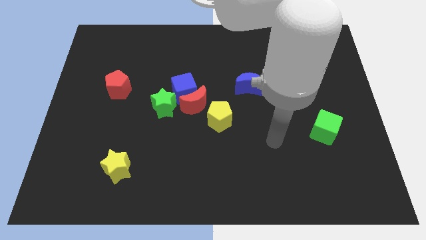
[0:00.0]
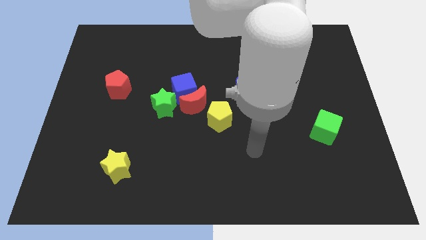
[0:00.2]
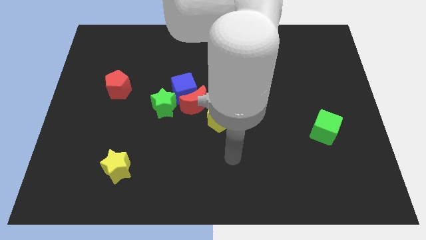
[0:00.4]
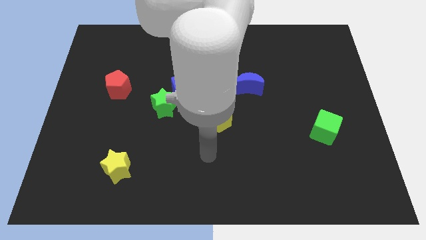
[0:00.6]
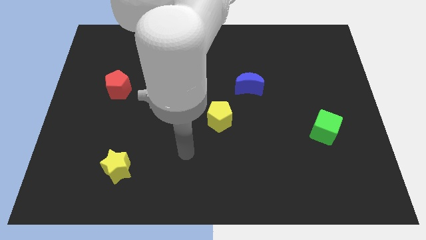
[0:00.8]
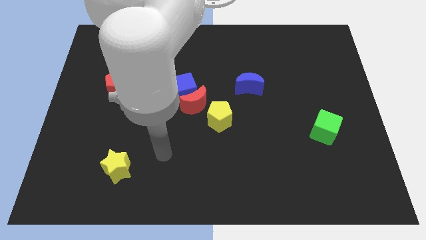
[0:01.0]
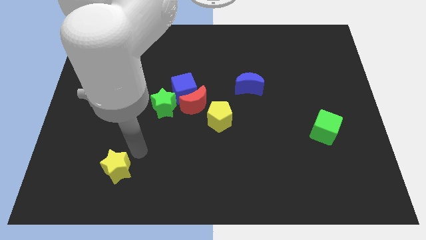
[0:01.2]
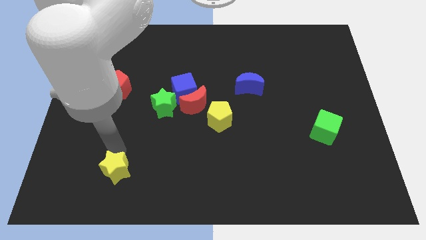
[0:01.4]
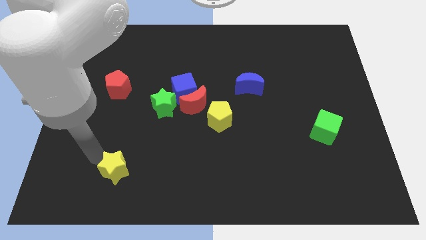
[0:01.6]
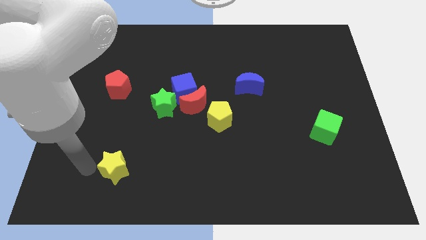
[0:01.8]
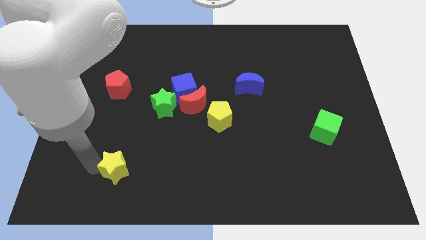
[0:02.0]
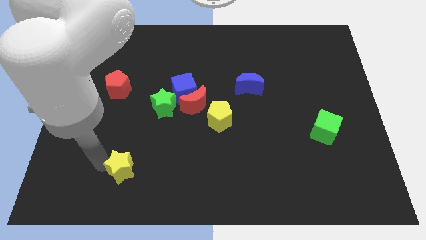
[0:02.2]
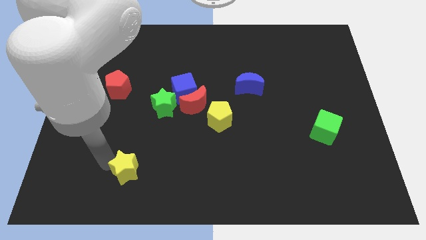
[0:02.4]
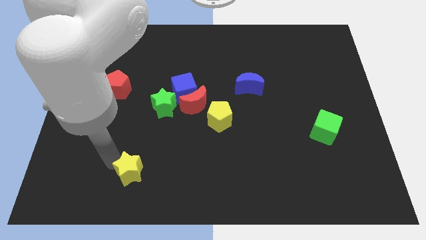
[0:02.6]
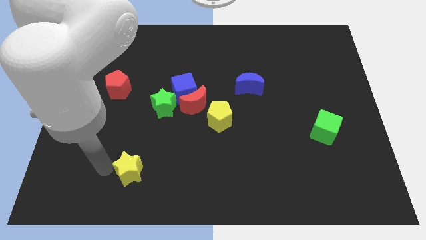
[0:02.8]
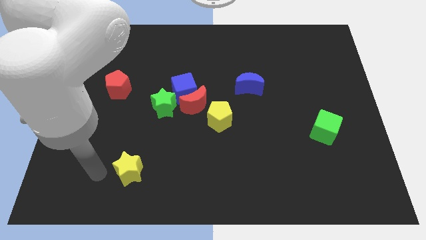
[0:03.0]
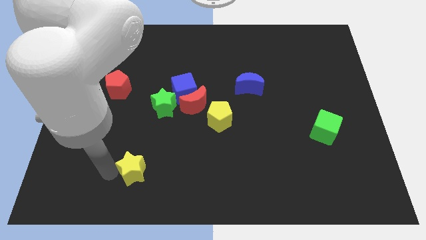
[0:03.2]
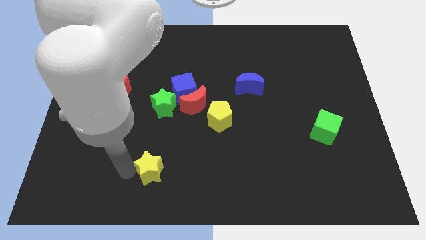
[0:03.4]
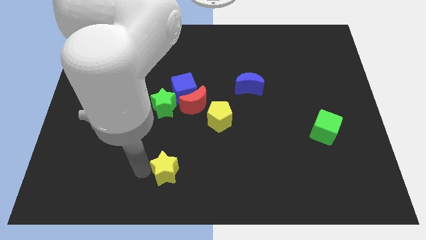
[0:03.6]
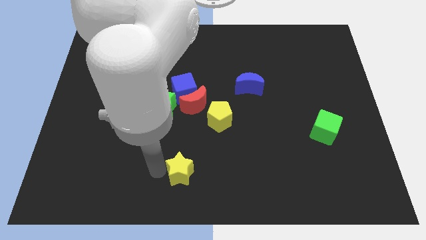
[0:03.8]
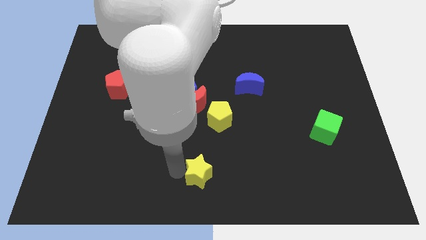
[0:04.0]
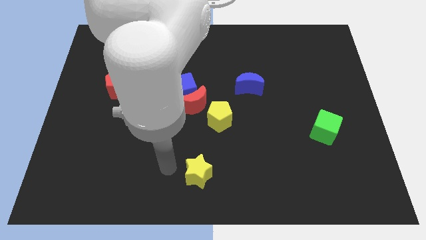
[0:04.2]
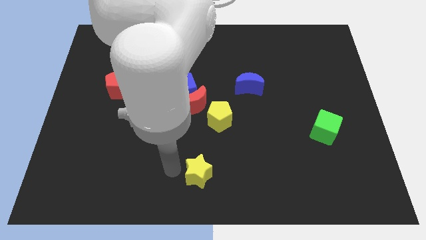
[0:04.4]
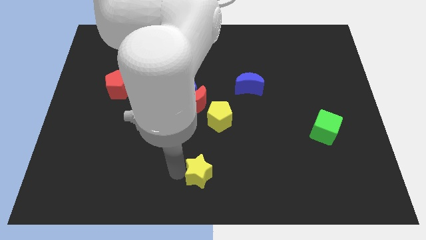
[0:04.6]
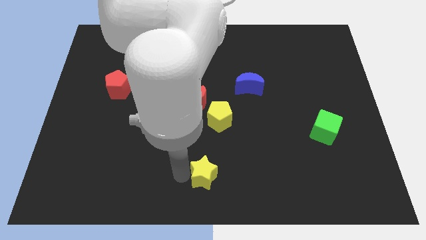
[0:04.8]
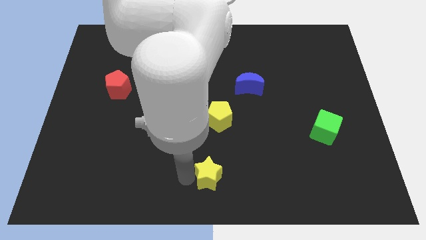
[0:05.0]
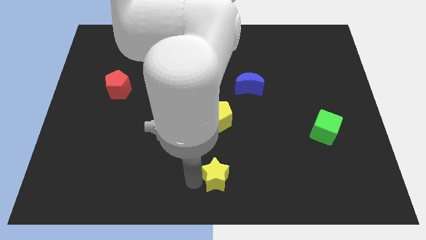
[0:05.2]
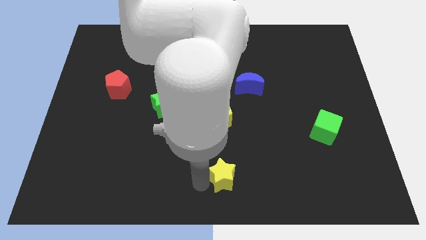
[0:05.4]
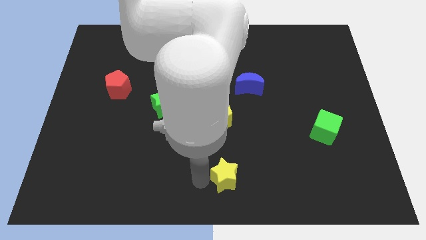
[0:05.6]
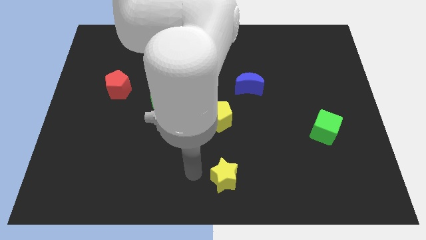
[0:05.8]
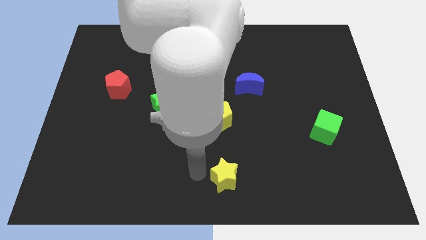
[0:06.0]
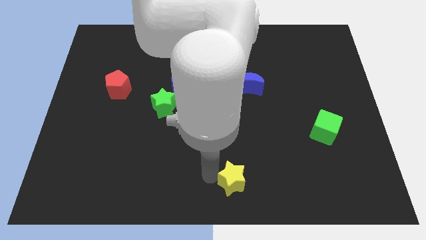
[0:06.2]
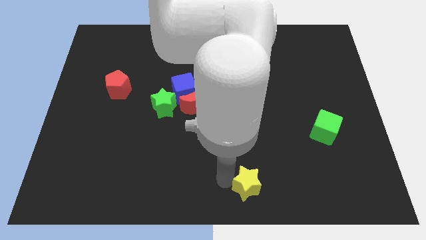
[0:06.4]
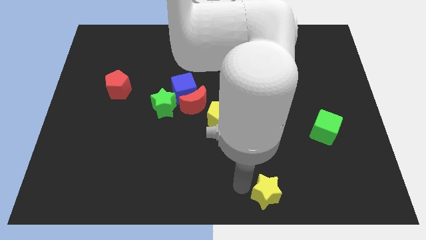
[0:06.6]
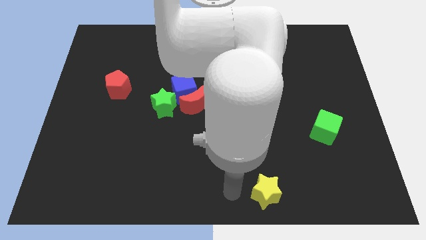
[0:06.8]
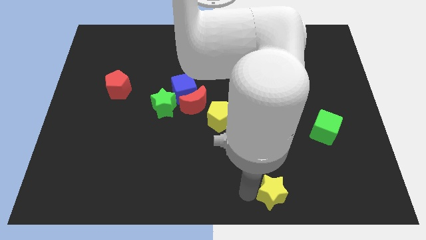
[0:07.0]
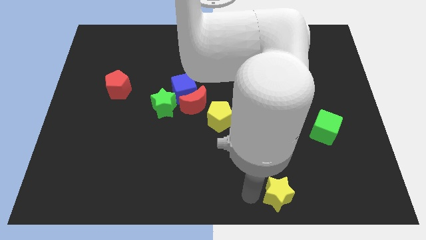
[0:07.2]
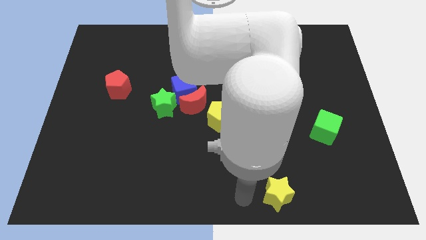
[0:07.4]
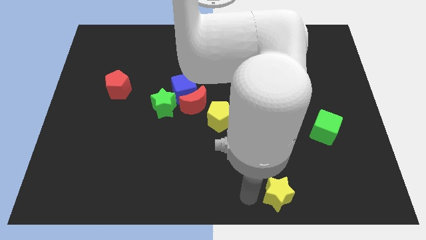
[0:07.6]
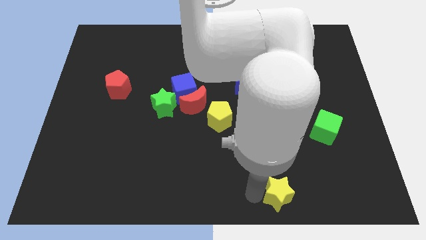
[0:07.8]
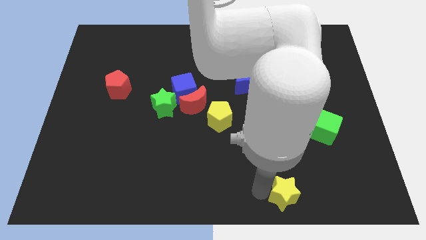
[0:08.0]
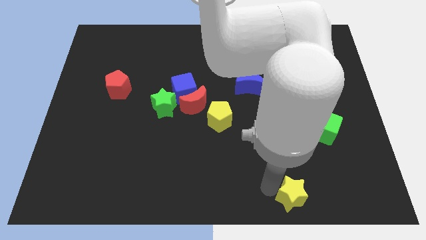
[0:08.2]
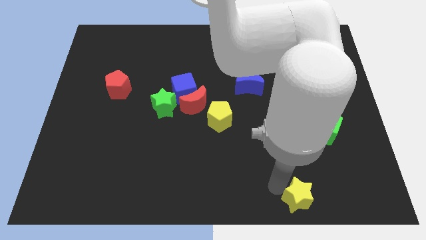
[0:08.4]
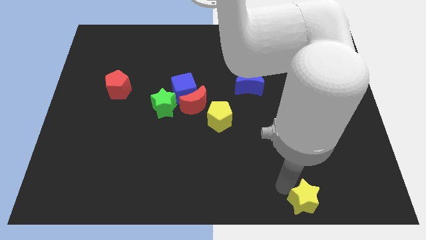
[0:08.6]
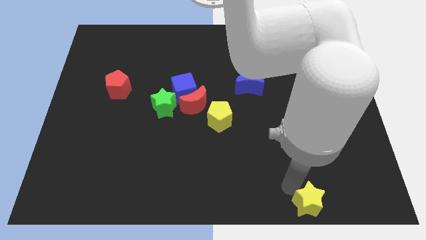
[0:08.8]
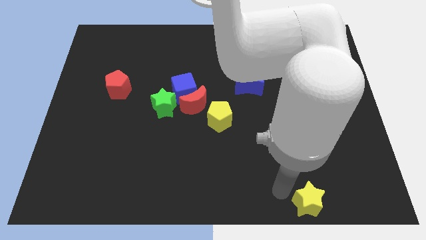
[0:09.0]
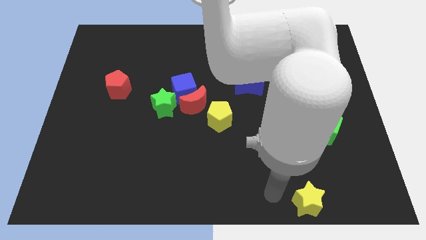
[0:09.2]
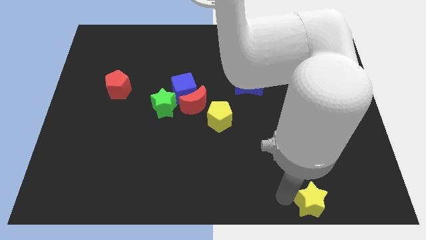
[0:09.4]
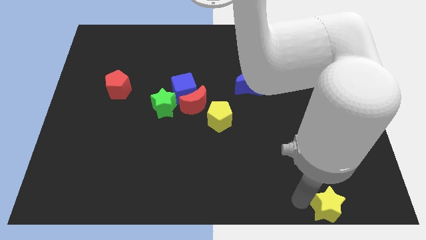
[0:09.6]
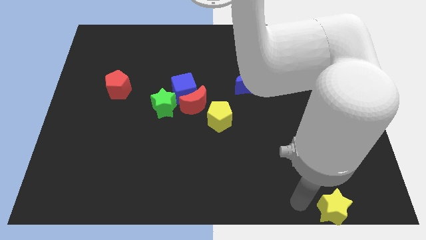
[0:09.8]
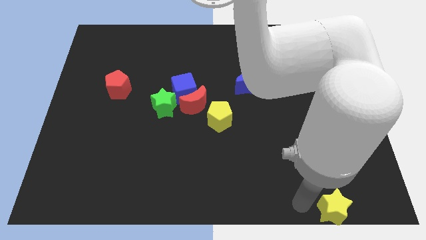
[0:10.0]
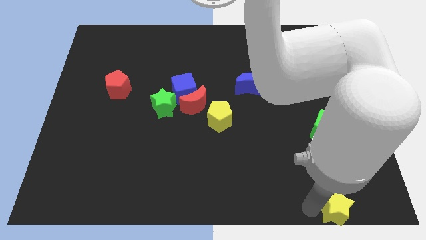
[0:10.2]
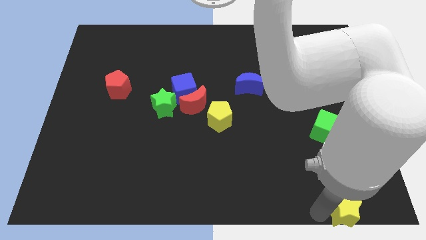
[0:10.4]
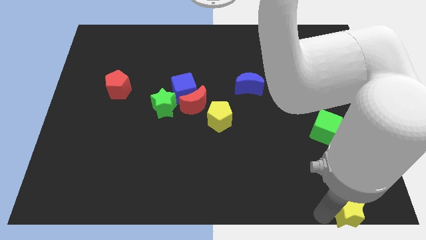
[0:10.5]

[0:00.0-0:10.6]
push the yellow star to the bottom right corner
